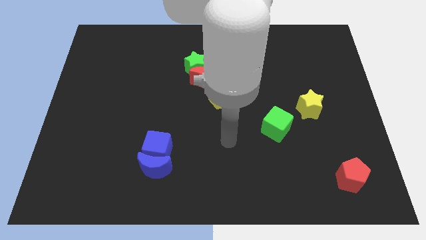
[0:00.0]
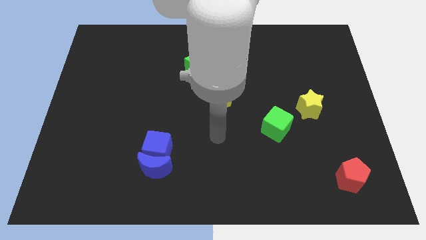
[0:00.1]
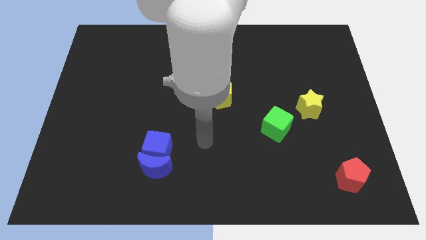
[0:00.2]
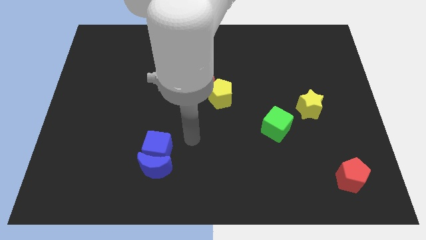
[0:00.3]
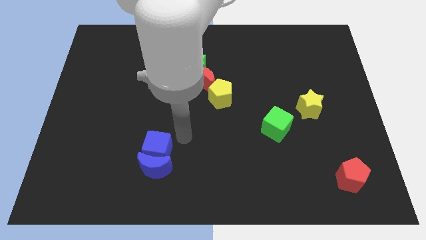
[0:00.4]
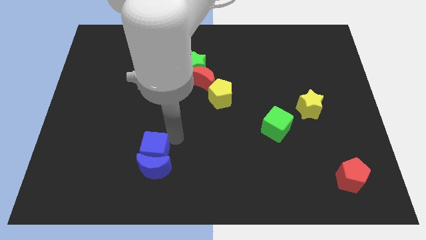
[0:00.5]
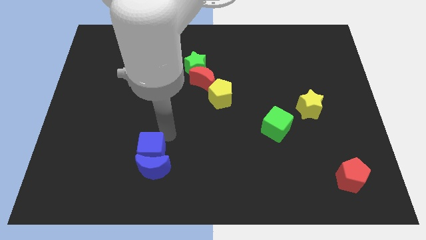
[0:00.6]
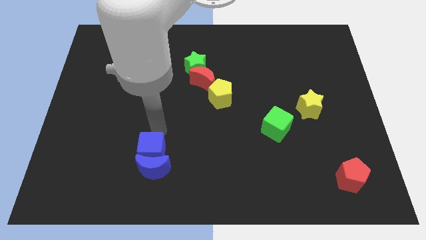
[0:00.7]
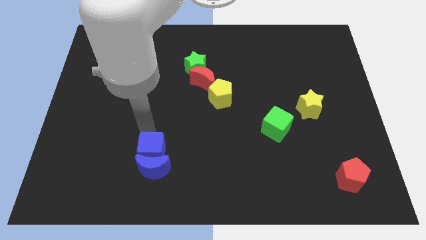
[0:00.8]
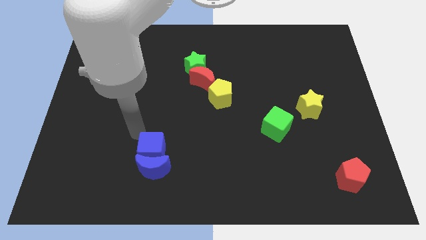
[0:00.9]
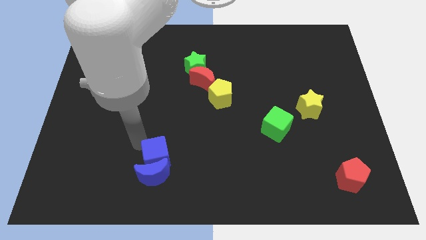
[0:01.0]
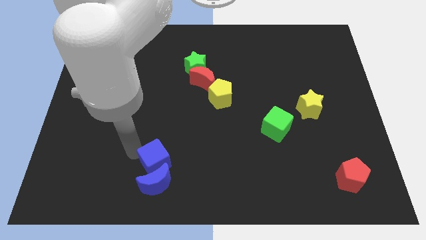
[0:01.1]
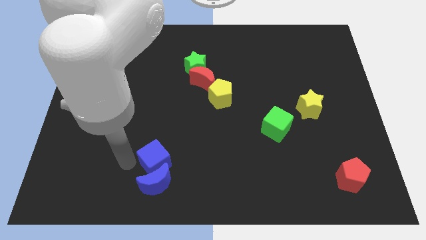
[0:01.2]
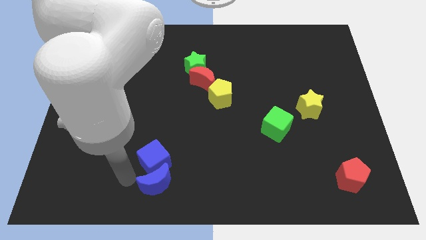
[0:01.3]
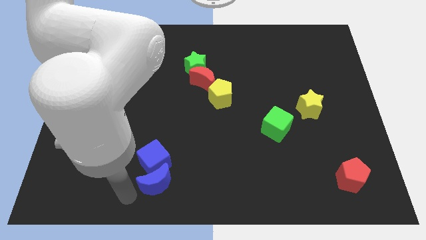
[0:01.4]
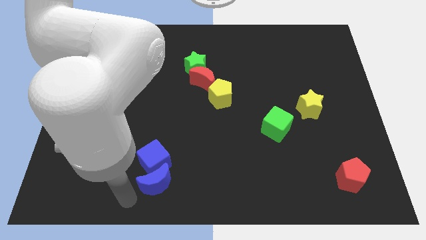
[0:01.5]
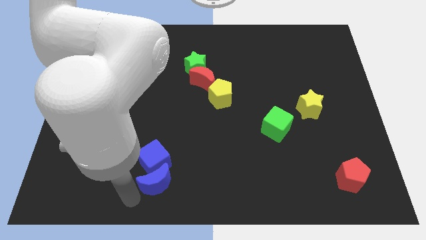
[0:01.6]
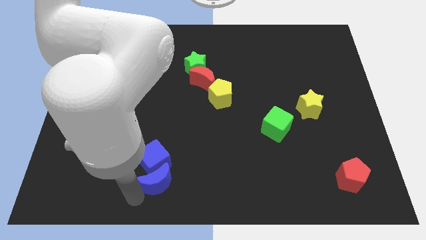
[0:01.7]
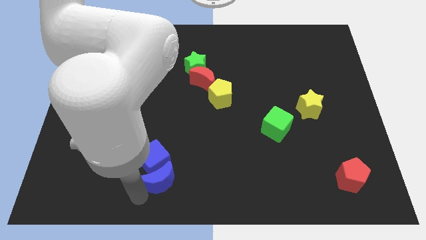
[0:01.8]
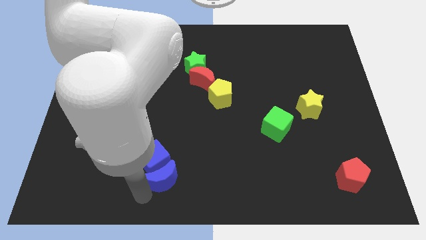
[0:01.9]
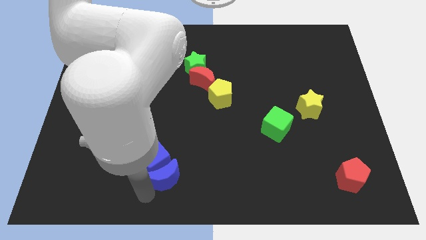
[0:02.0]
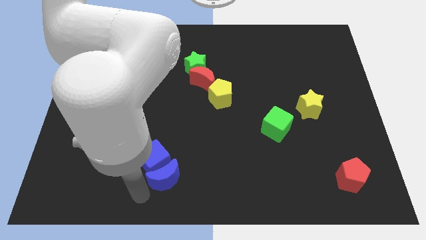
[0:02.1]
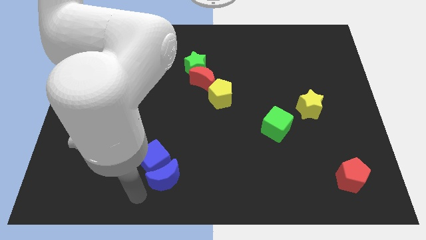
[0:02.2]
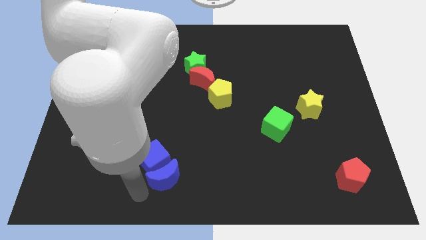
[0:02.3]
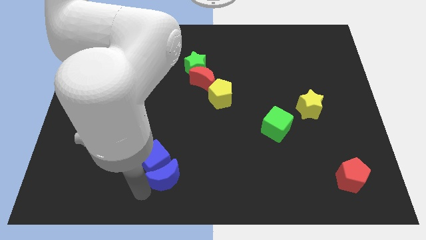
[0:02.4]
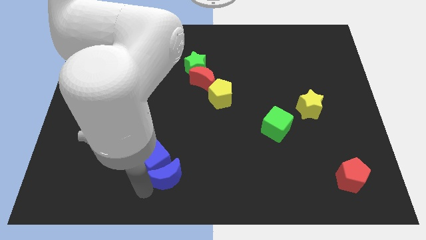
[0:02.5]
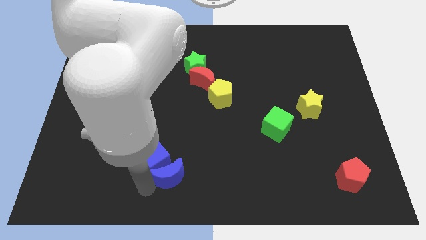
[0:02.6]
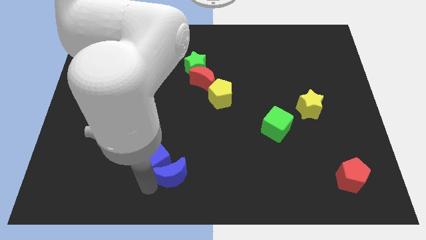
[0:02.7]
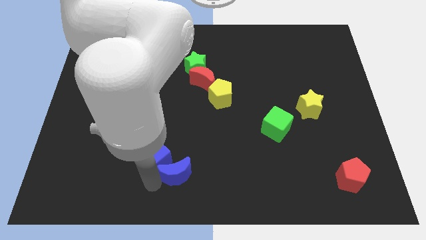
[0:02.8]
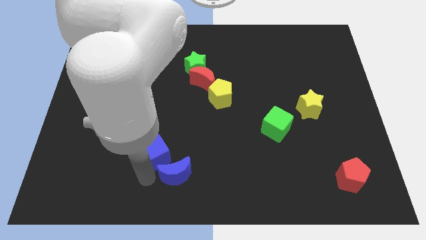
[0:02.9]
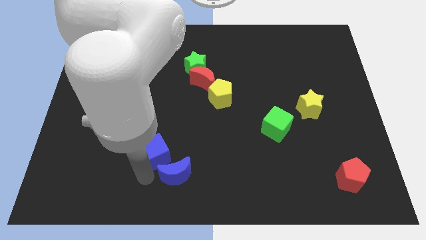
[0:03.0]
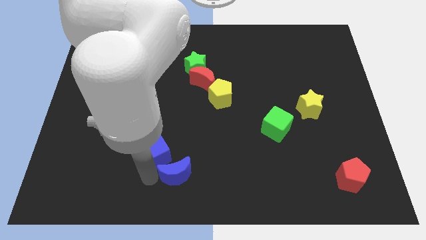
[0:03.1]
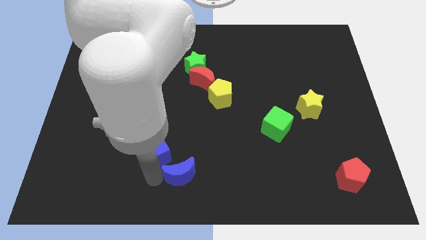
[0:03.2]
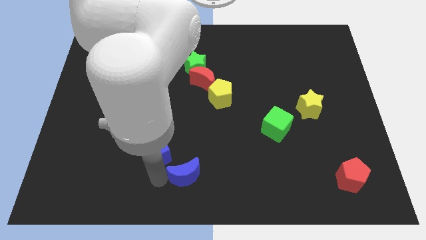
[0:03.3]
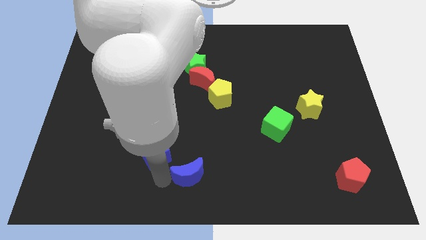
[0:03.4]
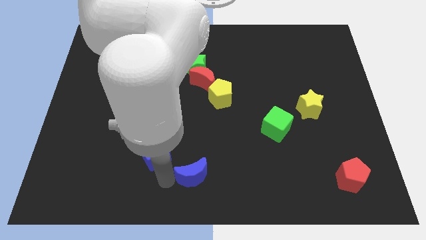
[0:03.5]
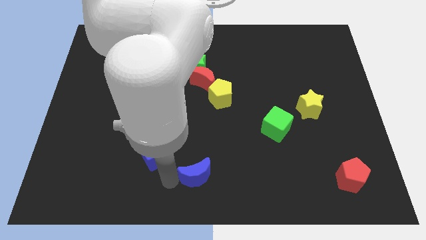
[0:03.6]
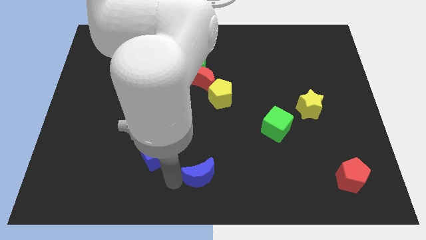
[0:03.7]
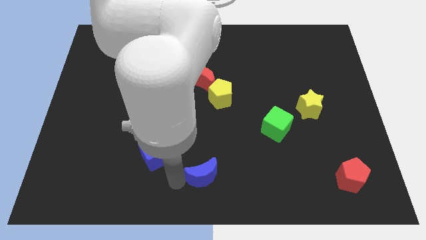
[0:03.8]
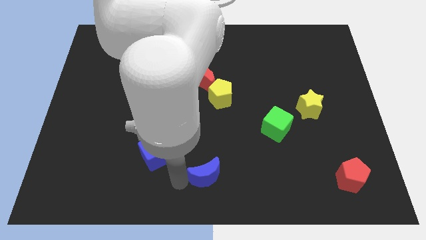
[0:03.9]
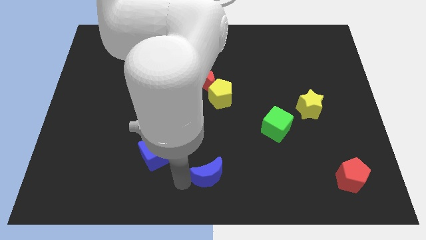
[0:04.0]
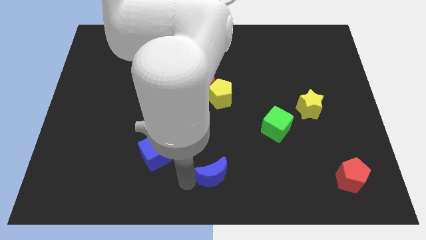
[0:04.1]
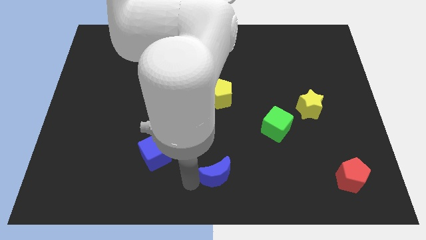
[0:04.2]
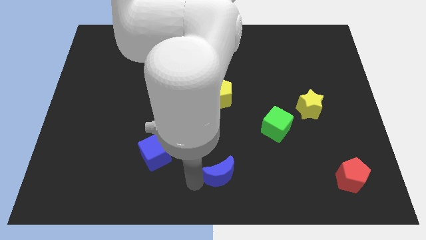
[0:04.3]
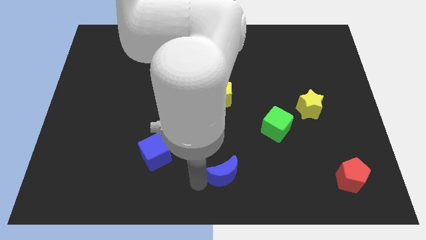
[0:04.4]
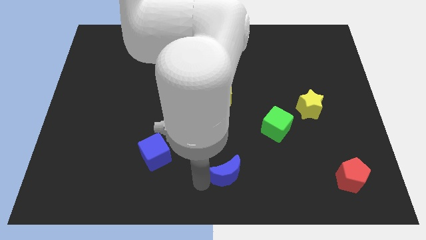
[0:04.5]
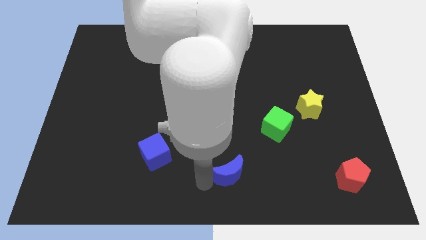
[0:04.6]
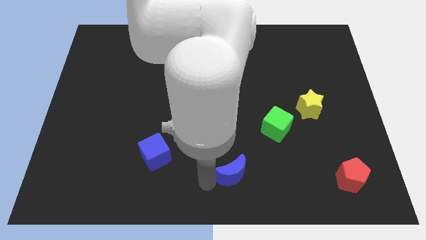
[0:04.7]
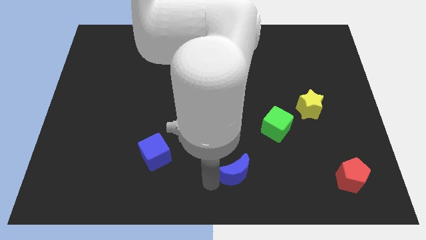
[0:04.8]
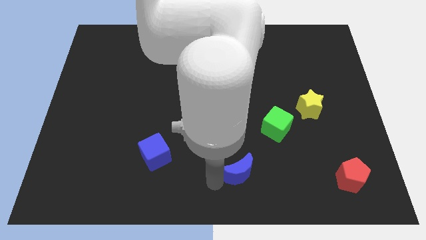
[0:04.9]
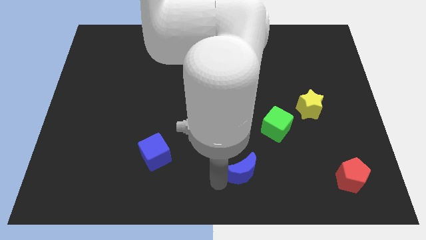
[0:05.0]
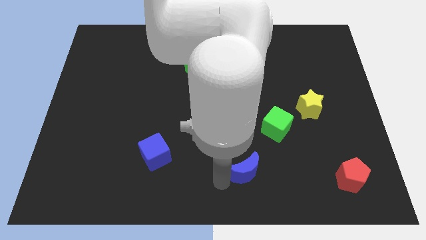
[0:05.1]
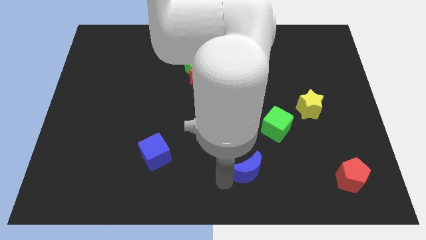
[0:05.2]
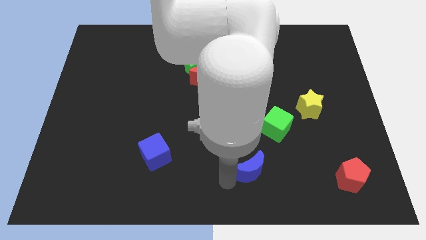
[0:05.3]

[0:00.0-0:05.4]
move the blue moon to the right

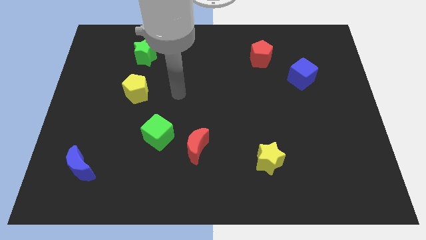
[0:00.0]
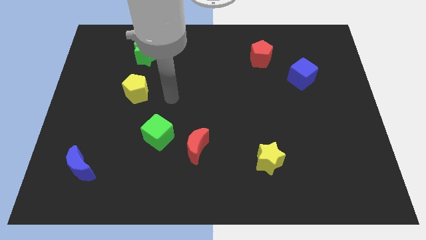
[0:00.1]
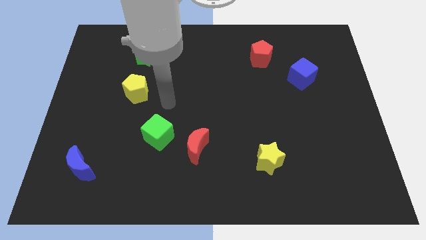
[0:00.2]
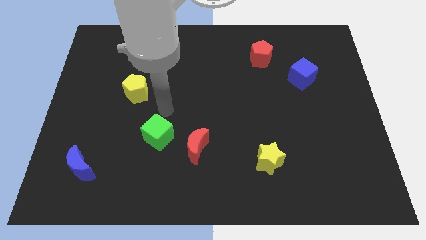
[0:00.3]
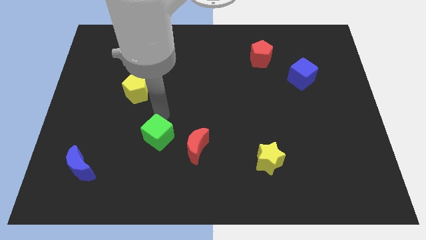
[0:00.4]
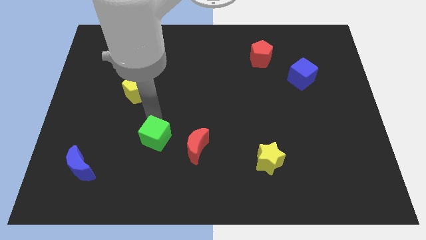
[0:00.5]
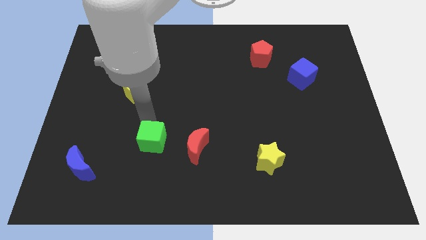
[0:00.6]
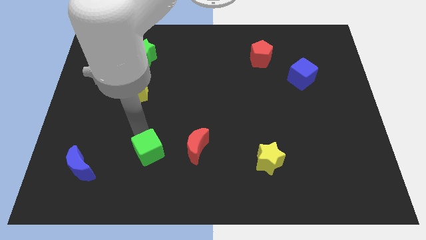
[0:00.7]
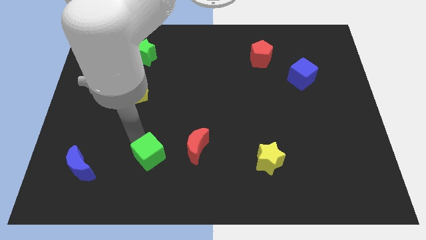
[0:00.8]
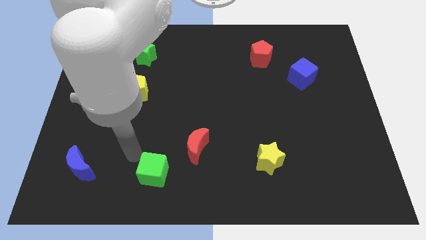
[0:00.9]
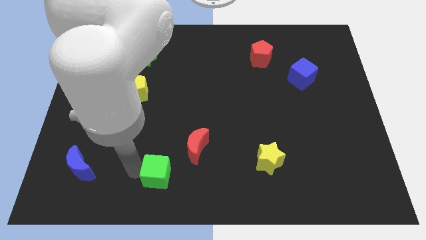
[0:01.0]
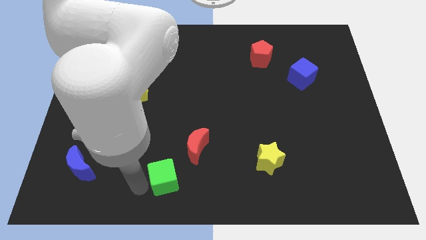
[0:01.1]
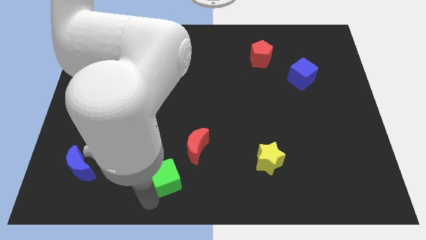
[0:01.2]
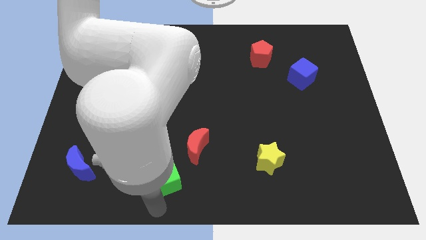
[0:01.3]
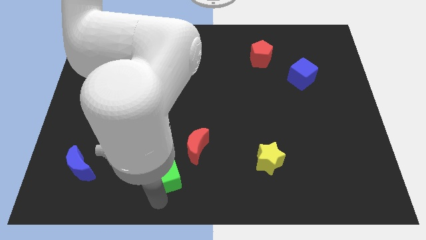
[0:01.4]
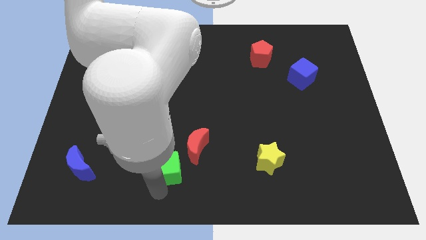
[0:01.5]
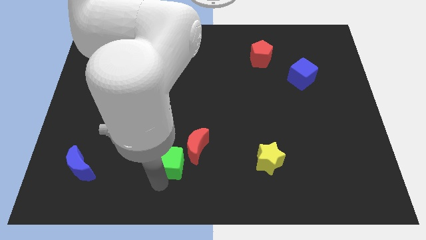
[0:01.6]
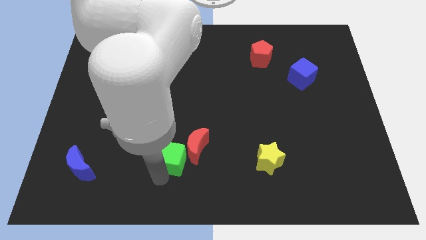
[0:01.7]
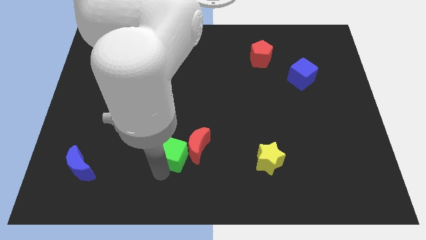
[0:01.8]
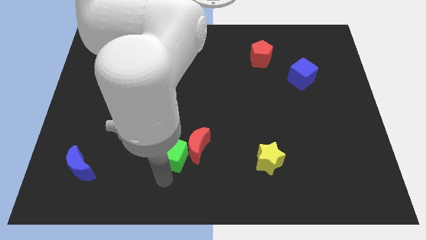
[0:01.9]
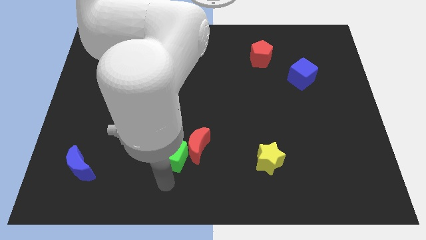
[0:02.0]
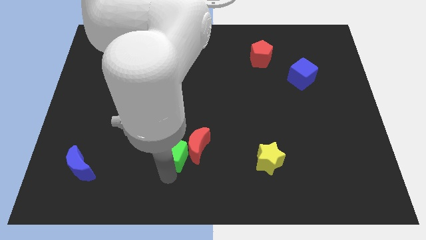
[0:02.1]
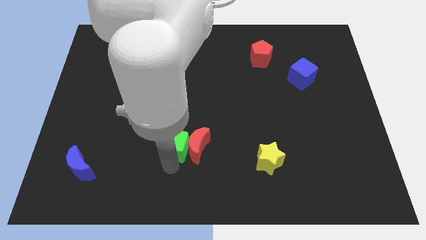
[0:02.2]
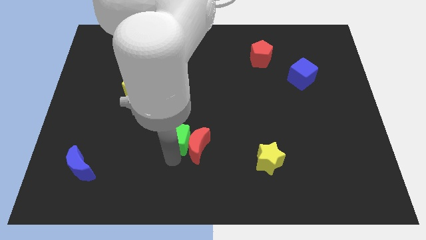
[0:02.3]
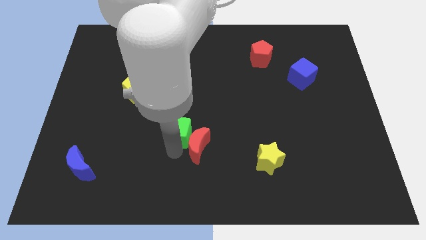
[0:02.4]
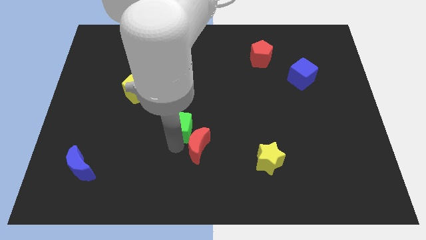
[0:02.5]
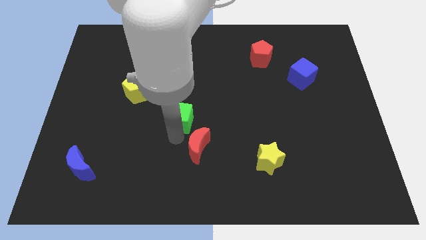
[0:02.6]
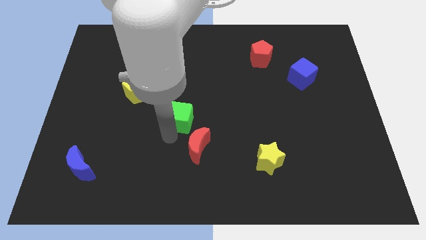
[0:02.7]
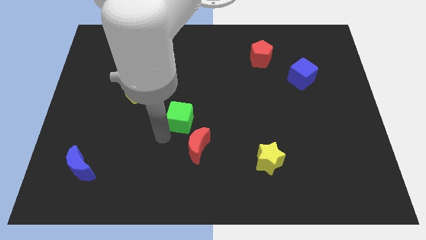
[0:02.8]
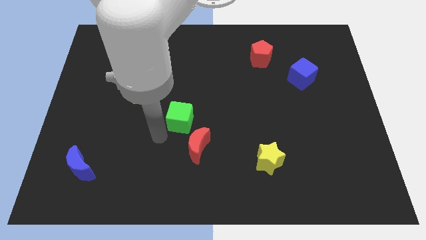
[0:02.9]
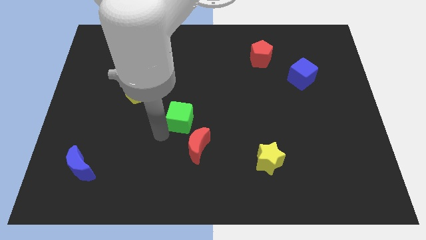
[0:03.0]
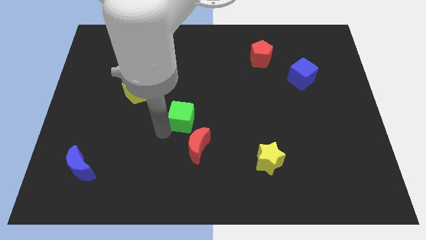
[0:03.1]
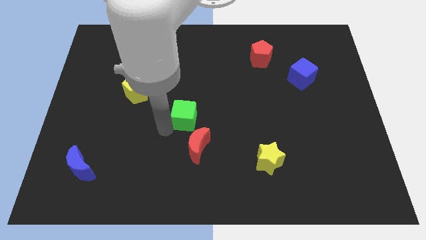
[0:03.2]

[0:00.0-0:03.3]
slide the green cube up and to the right diagonally a little
